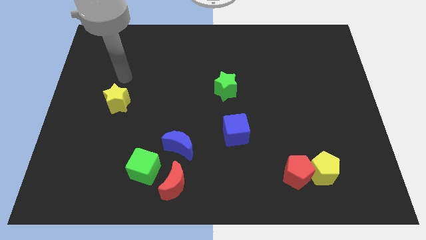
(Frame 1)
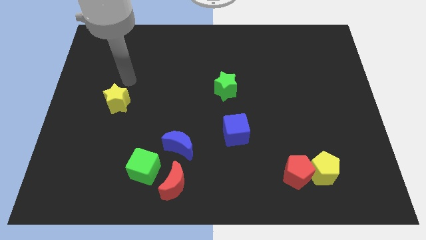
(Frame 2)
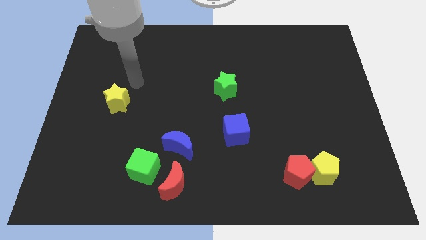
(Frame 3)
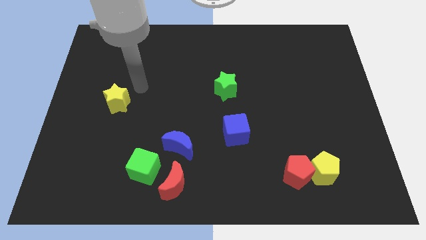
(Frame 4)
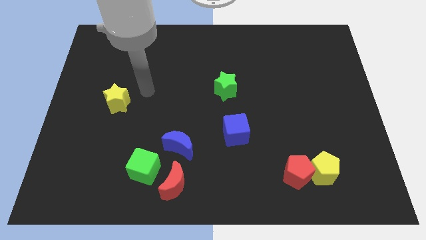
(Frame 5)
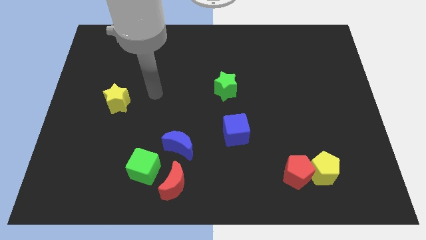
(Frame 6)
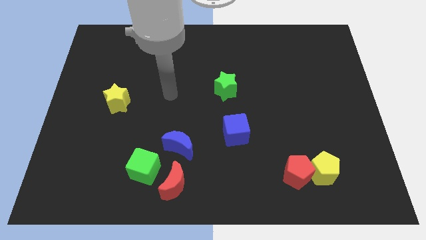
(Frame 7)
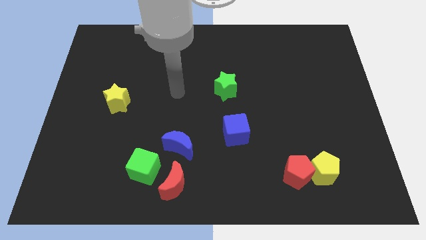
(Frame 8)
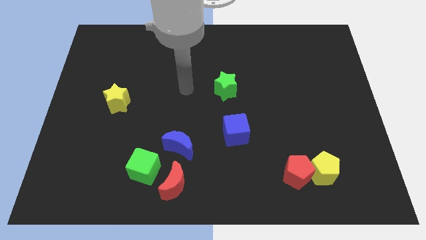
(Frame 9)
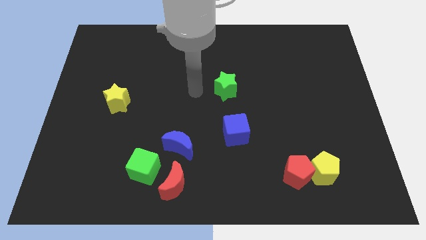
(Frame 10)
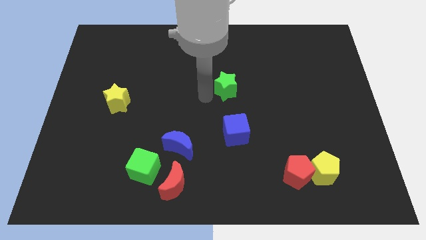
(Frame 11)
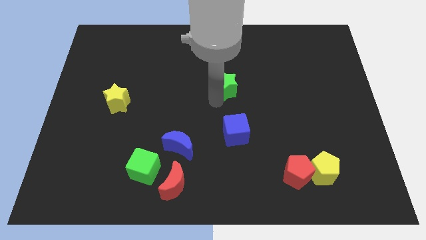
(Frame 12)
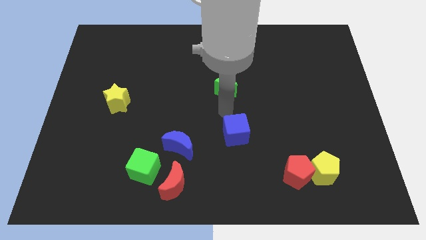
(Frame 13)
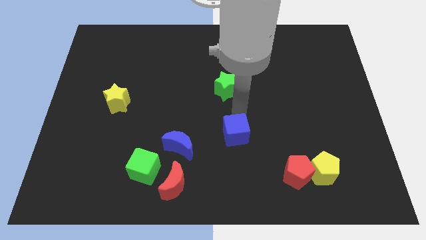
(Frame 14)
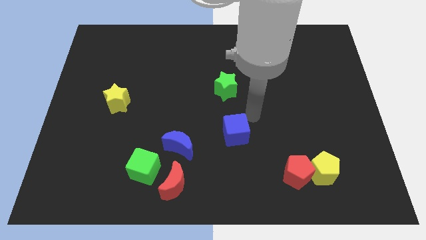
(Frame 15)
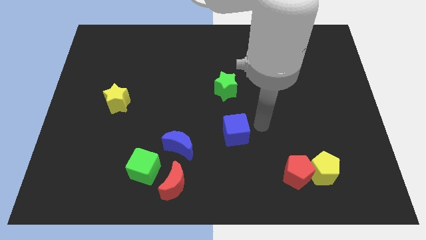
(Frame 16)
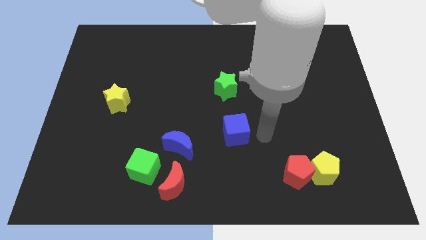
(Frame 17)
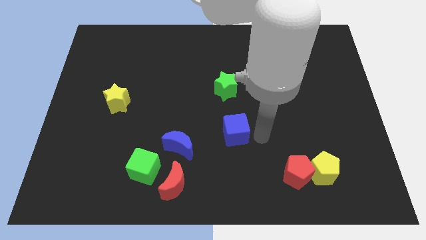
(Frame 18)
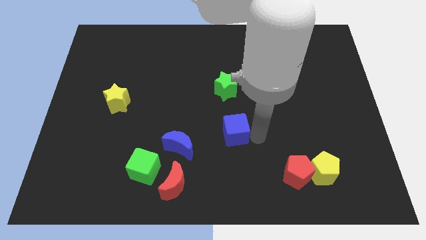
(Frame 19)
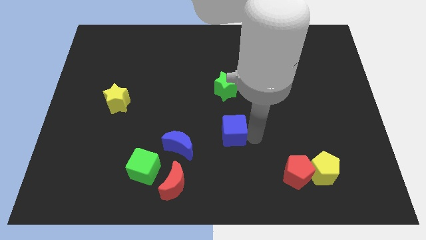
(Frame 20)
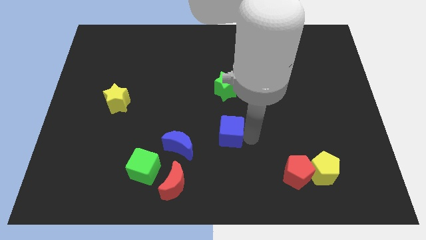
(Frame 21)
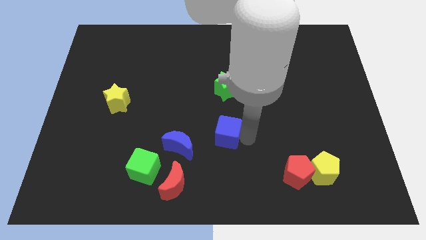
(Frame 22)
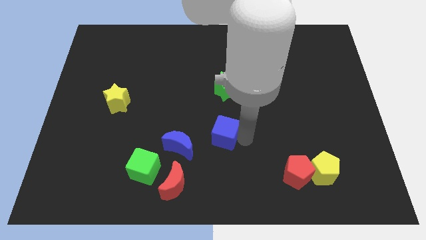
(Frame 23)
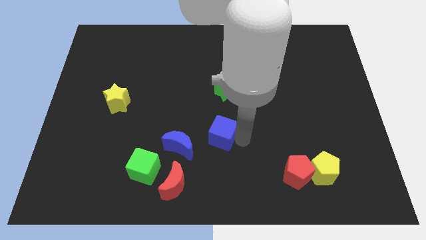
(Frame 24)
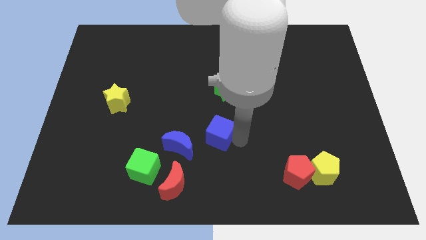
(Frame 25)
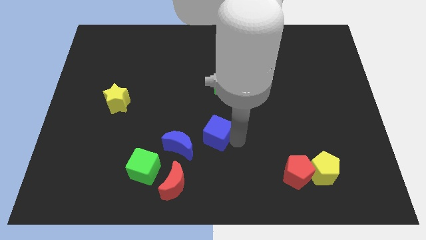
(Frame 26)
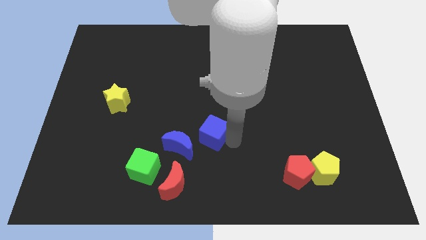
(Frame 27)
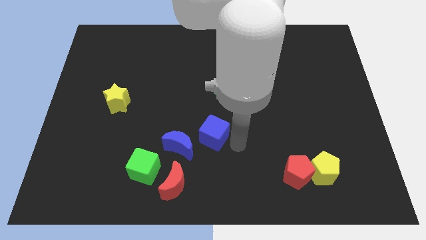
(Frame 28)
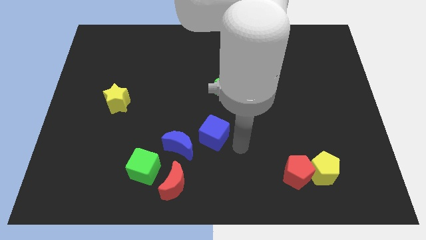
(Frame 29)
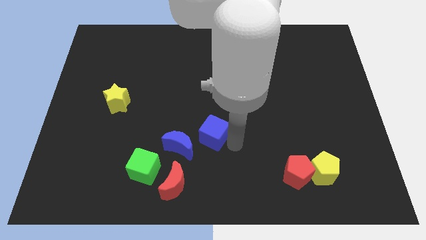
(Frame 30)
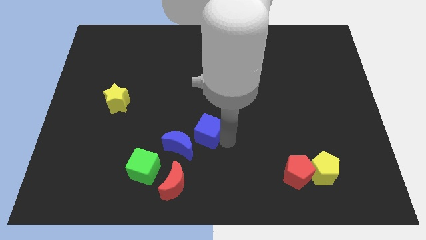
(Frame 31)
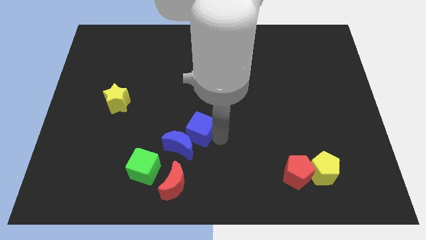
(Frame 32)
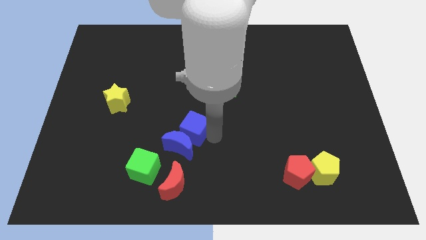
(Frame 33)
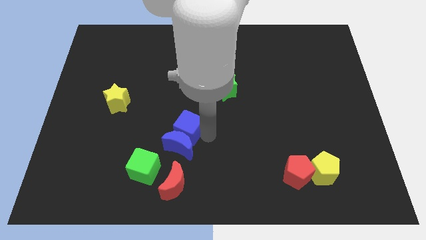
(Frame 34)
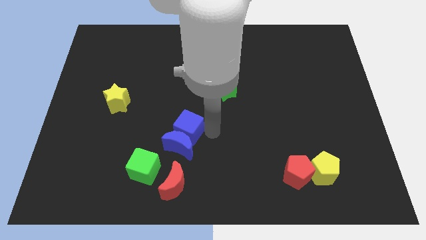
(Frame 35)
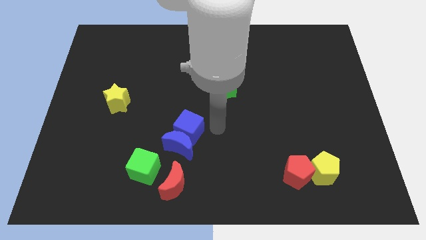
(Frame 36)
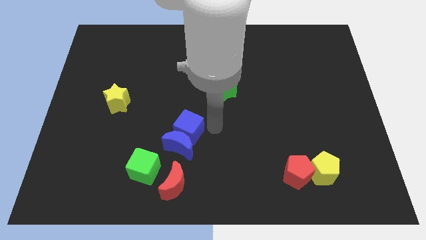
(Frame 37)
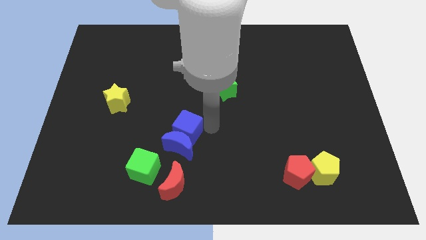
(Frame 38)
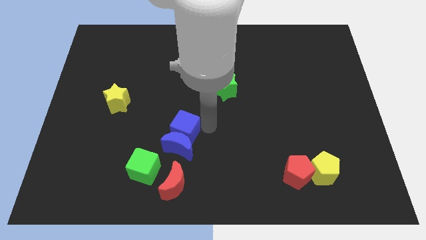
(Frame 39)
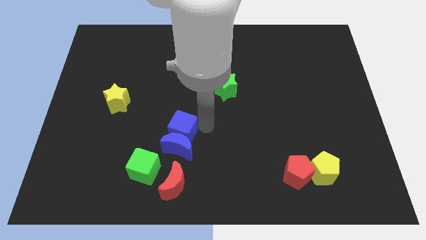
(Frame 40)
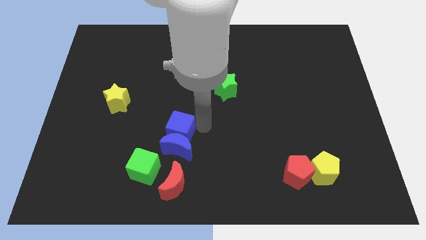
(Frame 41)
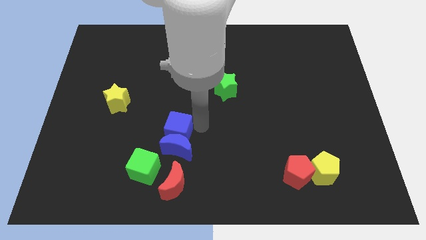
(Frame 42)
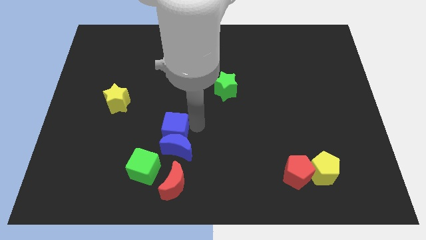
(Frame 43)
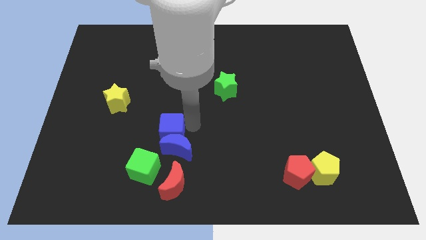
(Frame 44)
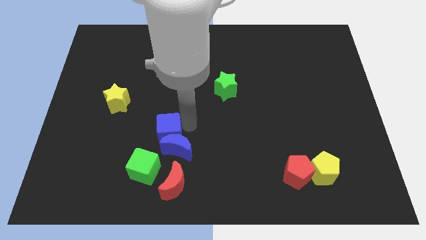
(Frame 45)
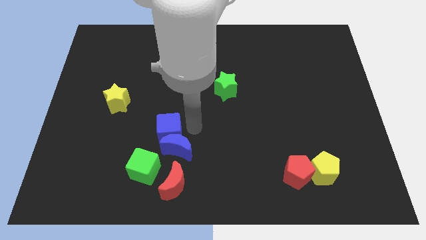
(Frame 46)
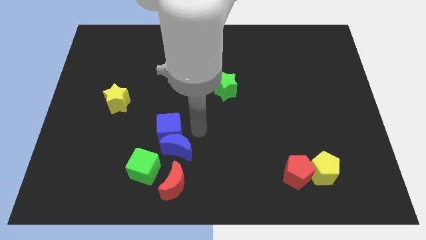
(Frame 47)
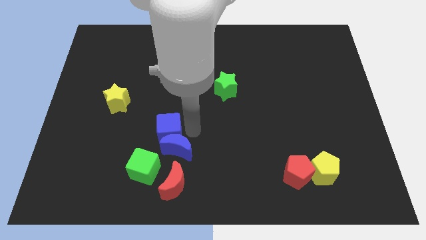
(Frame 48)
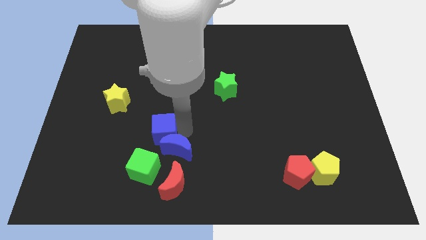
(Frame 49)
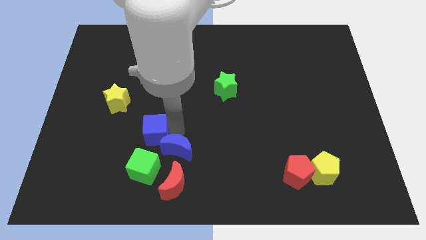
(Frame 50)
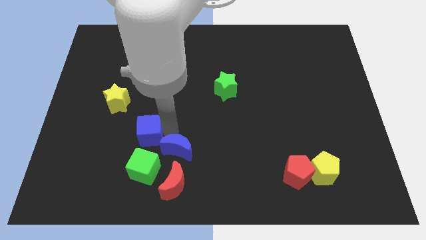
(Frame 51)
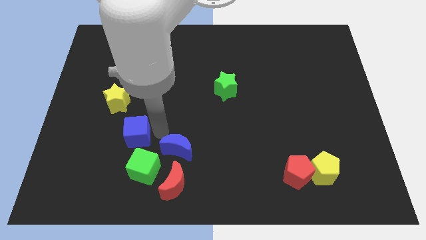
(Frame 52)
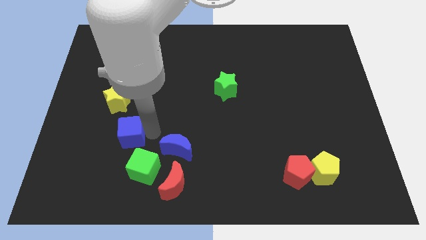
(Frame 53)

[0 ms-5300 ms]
put the blue cube below the yellow star

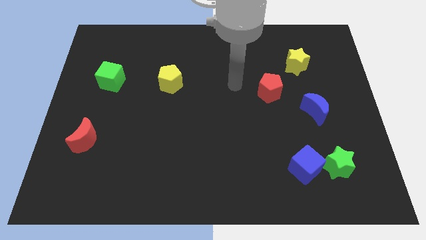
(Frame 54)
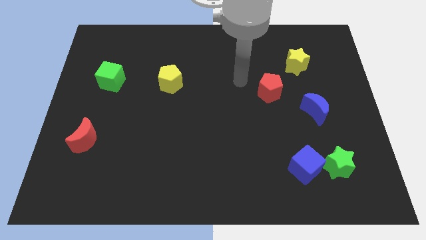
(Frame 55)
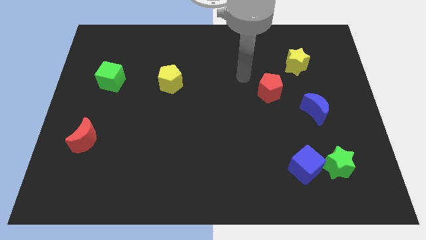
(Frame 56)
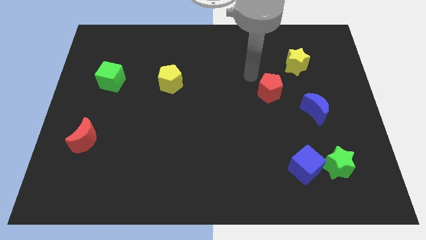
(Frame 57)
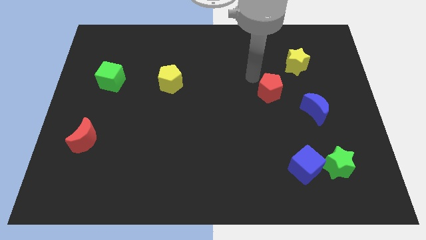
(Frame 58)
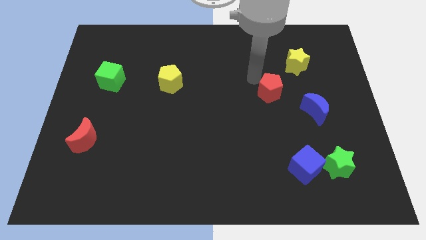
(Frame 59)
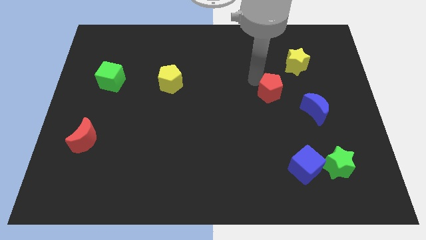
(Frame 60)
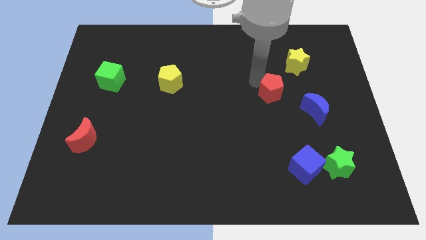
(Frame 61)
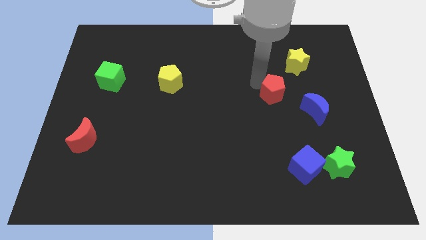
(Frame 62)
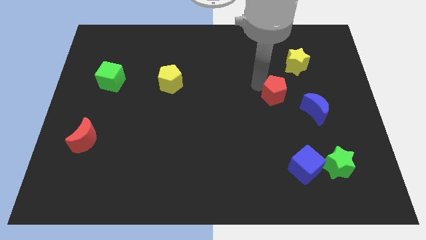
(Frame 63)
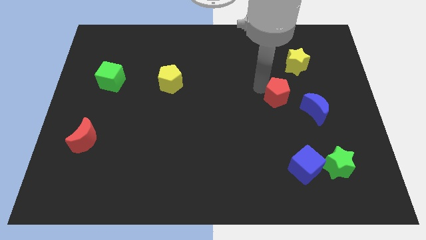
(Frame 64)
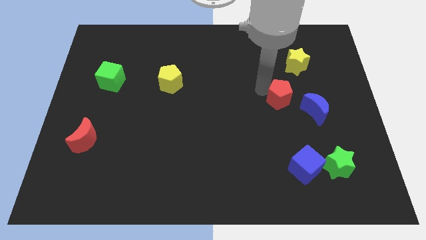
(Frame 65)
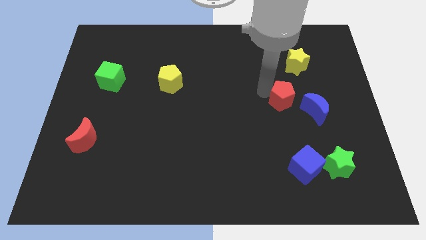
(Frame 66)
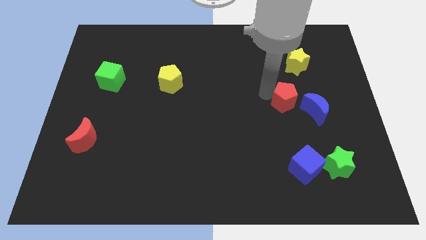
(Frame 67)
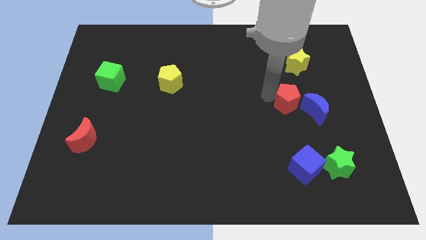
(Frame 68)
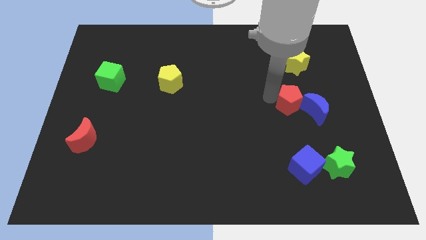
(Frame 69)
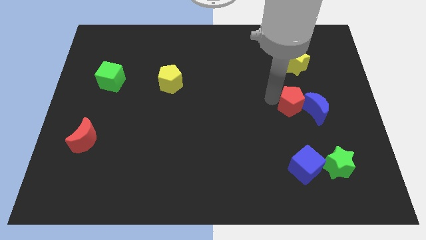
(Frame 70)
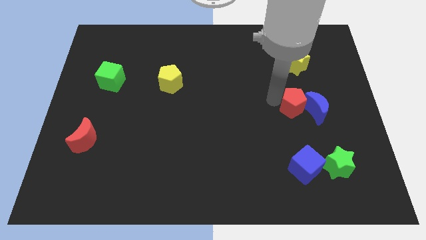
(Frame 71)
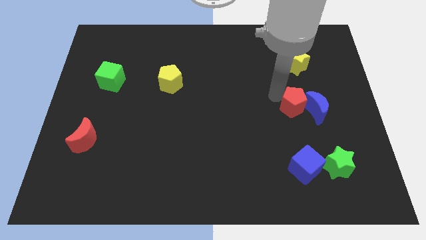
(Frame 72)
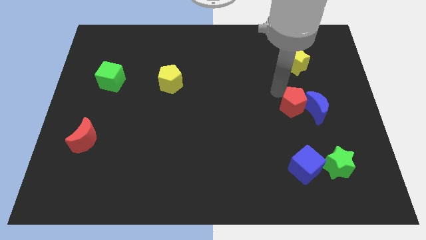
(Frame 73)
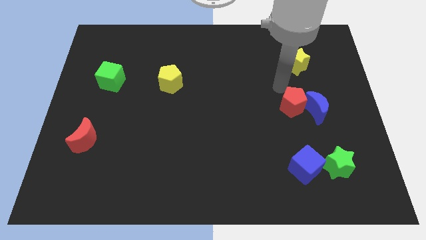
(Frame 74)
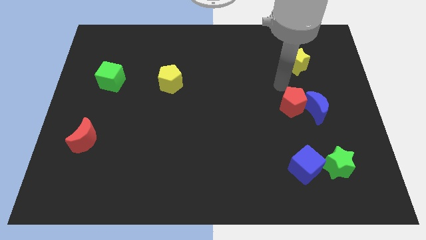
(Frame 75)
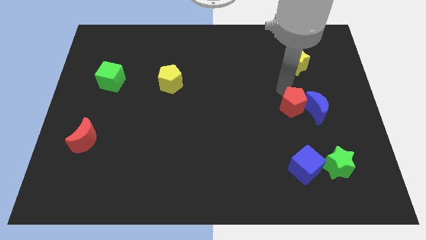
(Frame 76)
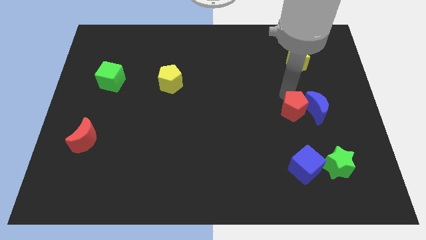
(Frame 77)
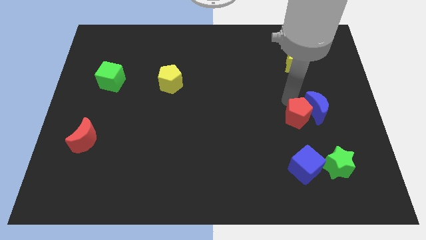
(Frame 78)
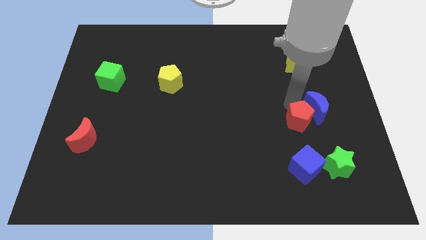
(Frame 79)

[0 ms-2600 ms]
slide the red pentagon below the blue moon
